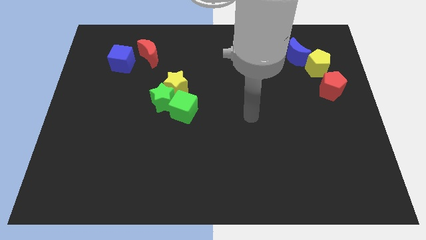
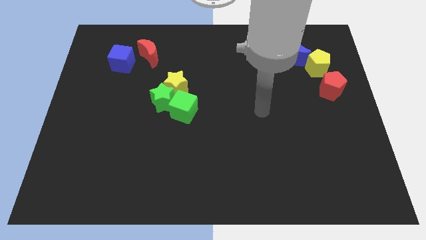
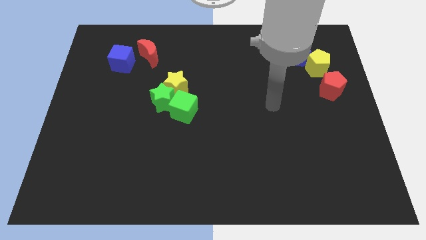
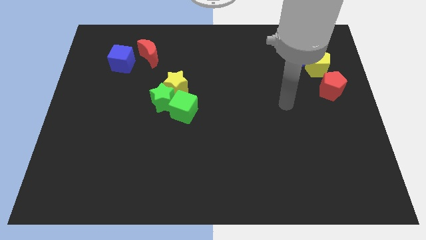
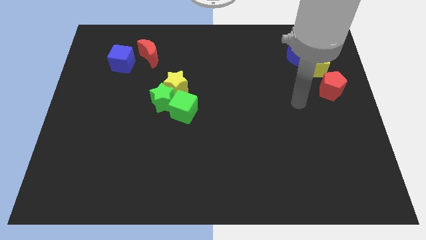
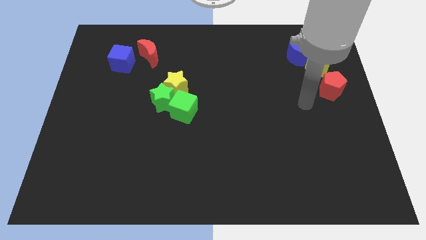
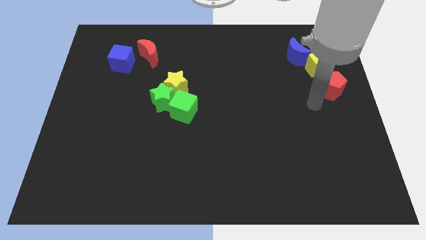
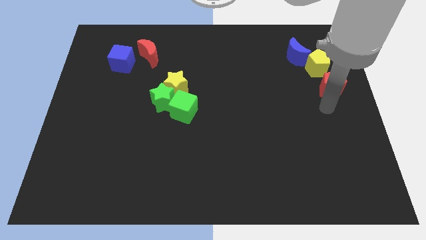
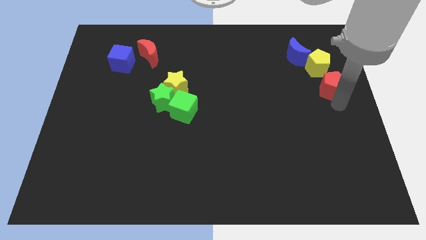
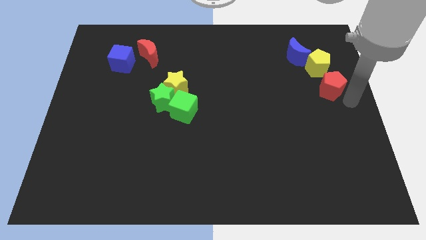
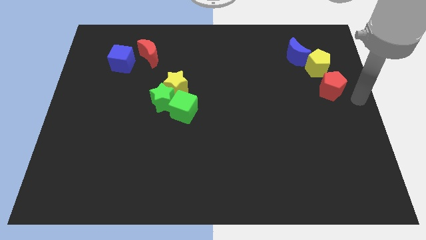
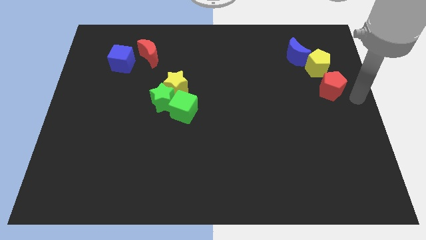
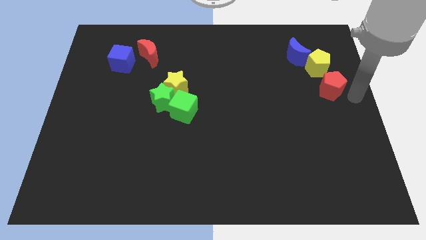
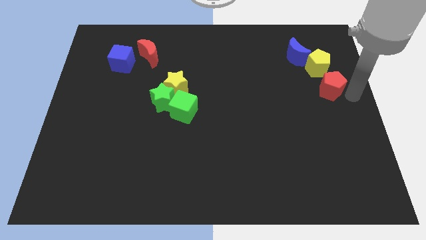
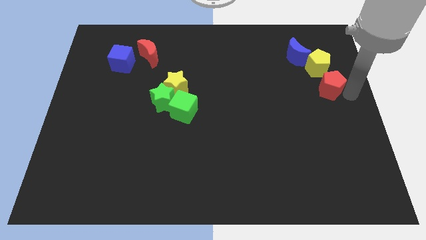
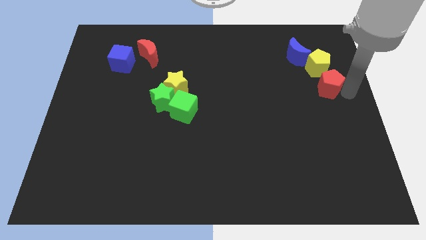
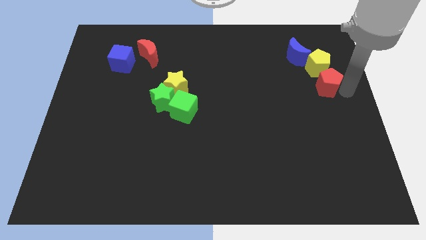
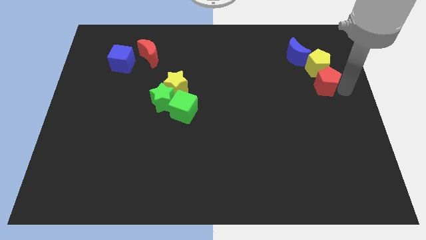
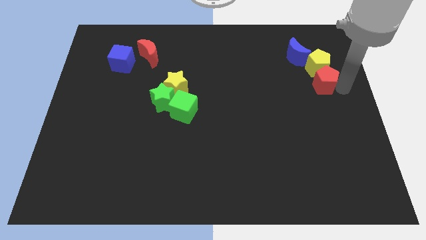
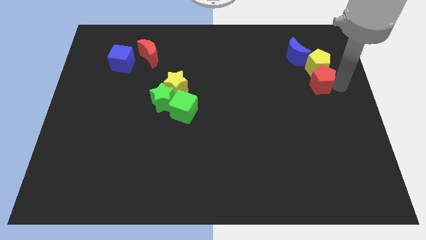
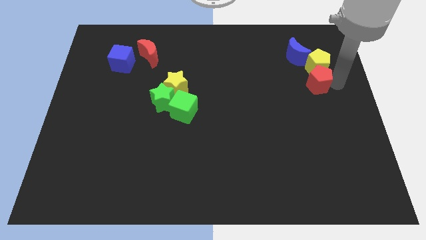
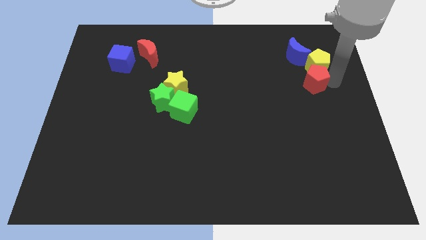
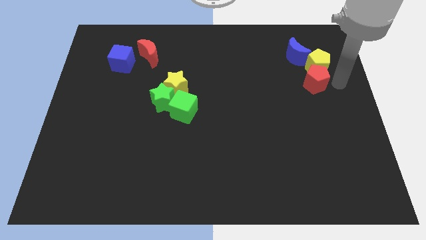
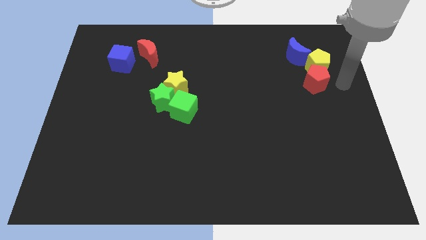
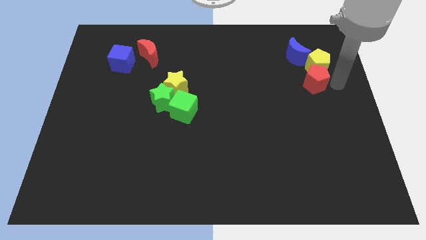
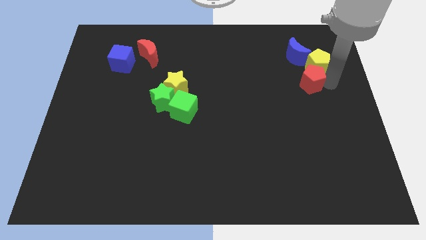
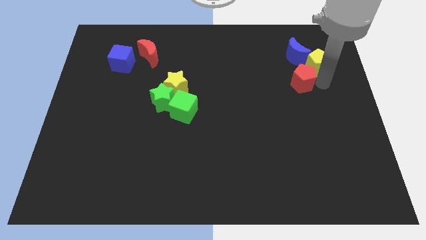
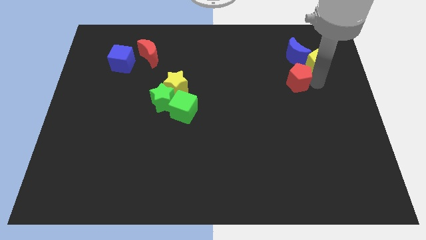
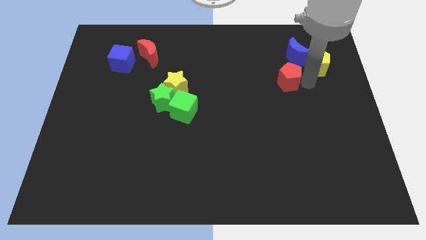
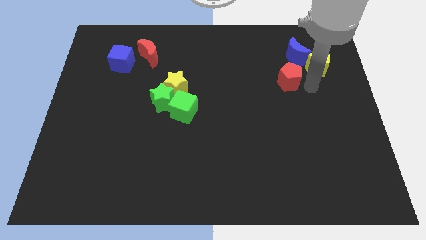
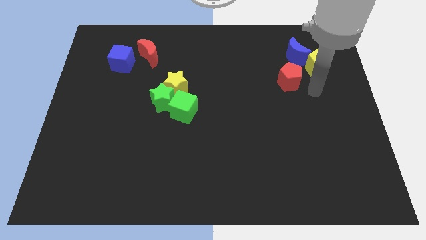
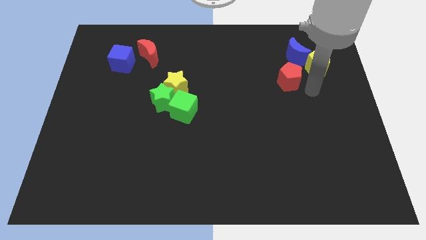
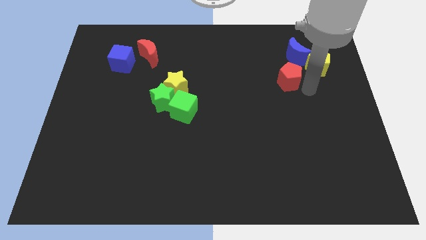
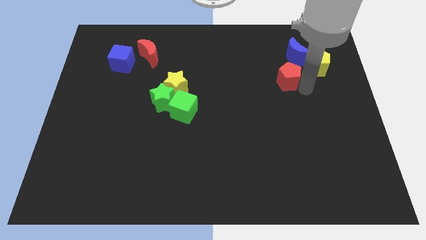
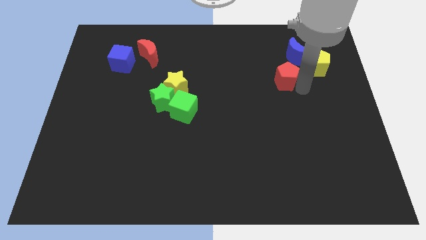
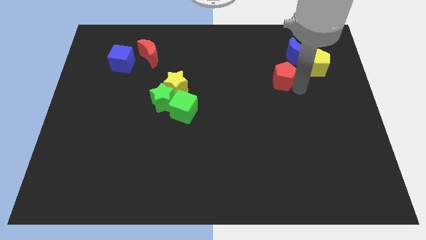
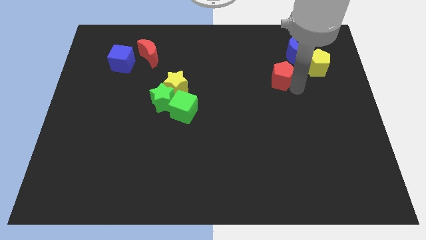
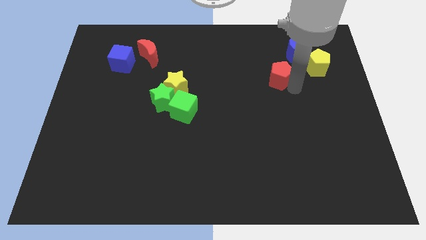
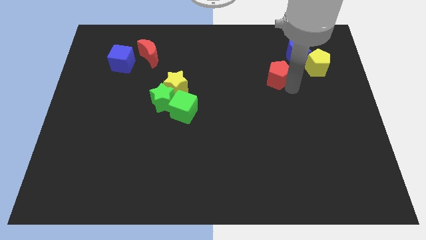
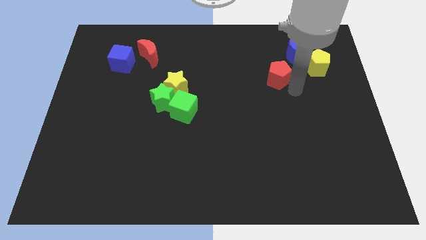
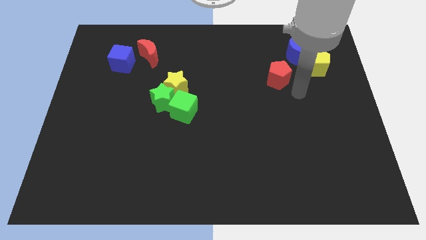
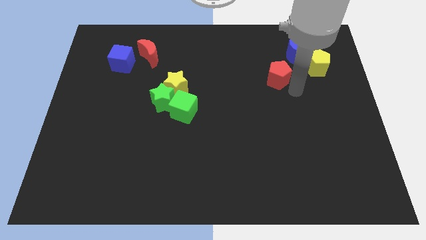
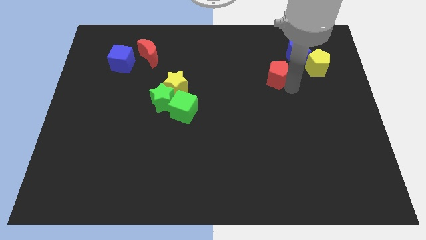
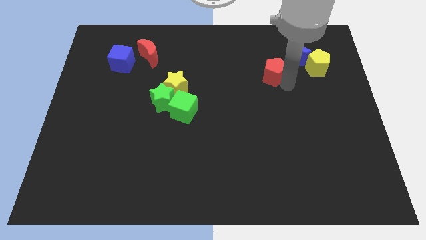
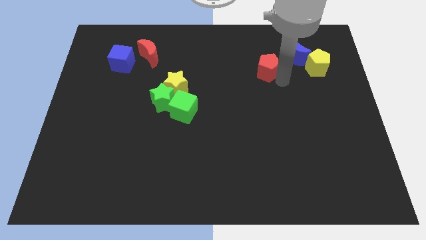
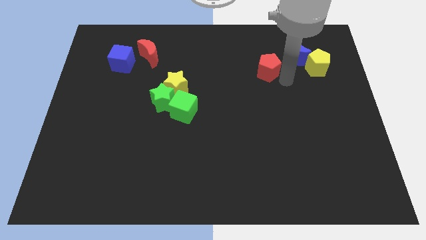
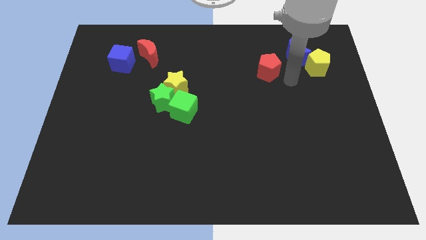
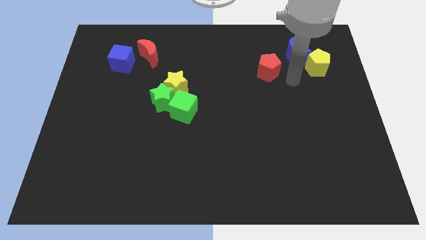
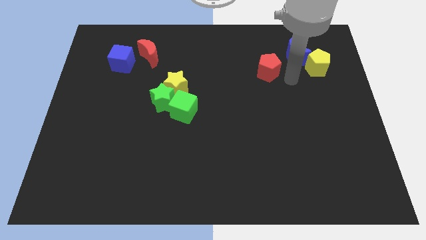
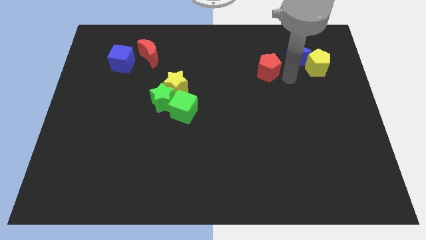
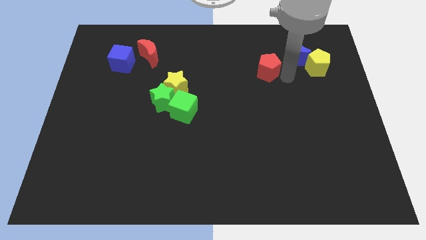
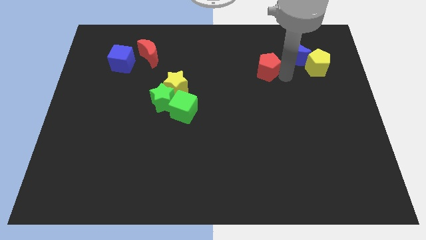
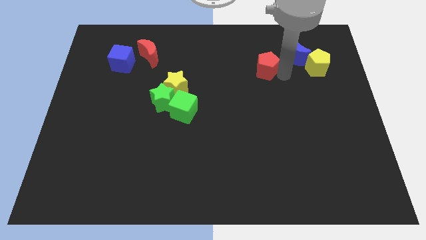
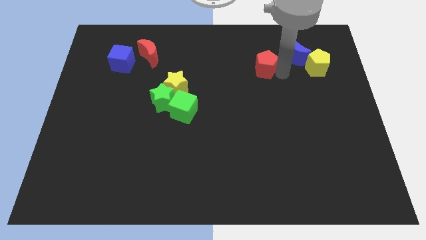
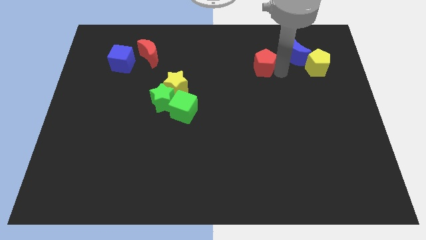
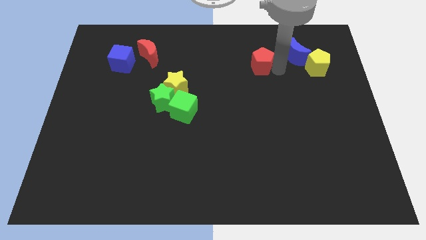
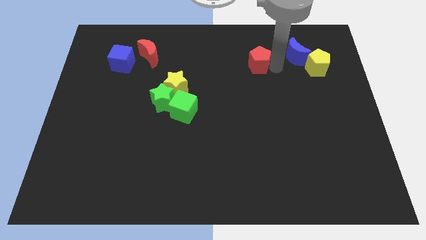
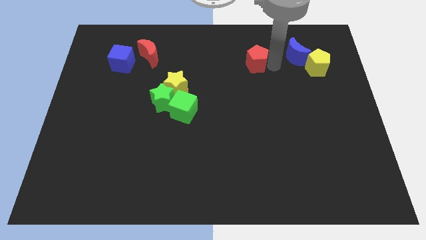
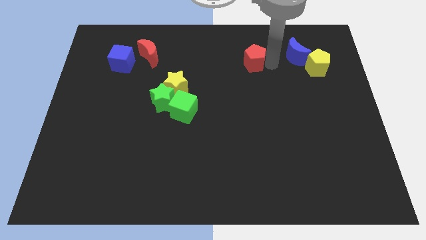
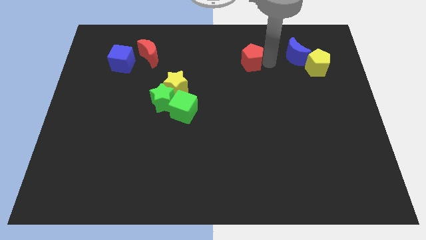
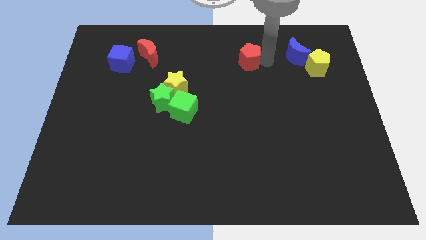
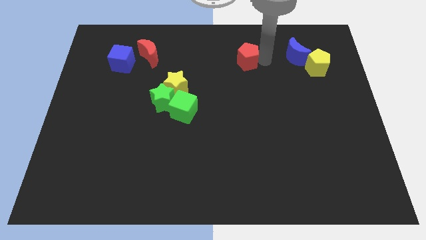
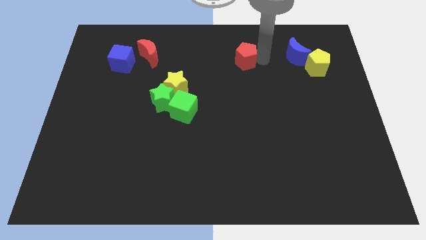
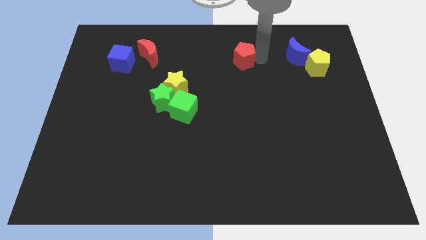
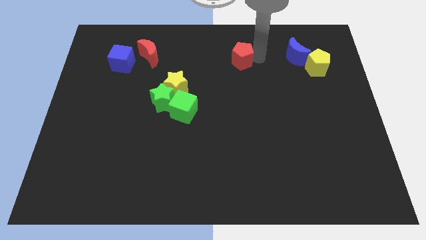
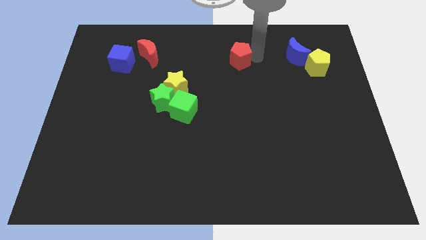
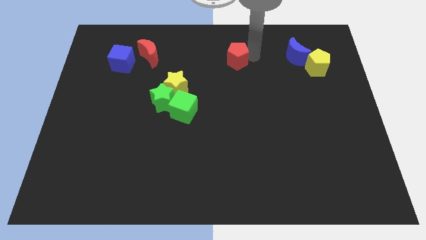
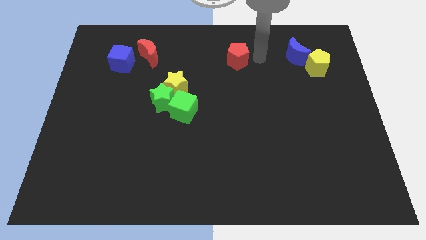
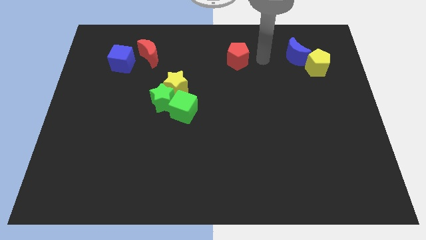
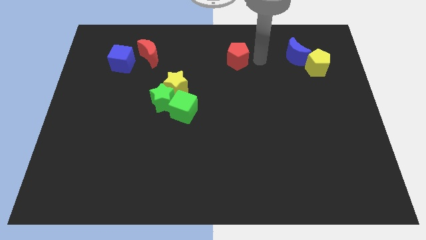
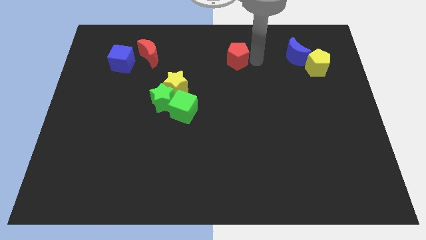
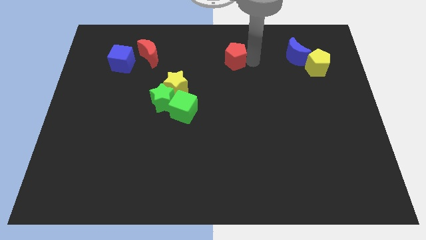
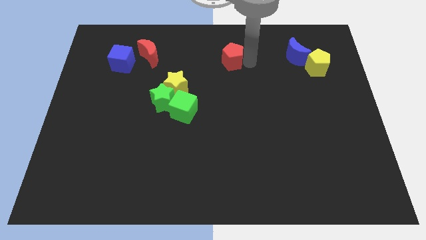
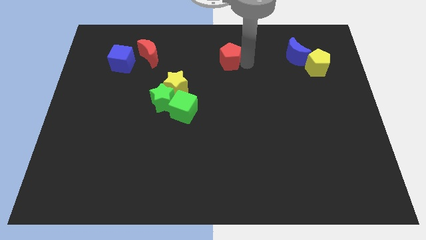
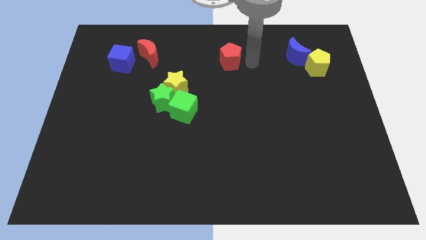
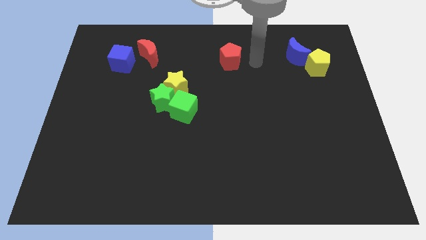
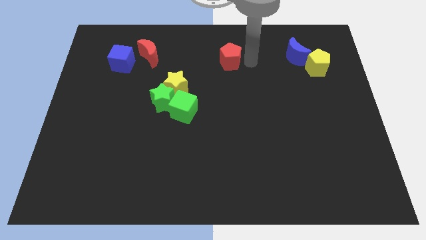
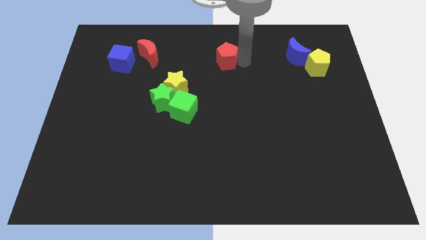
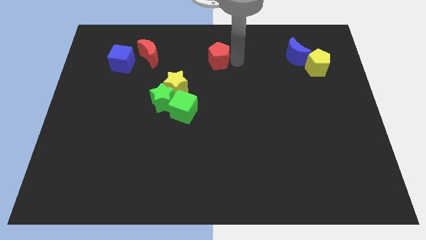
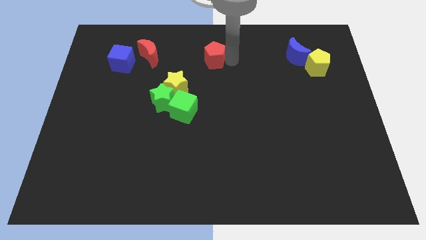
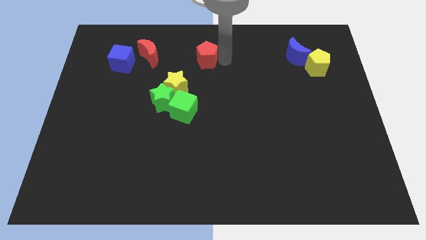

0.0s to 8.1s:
move the red pentagon right of the red moon
